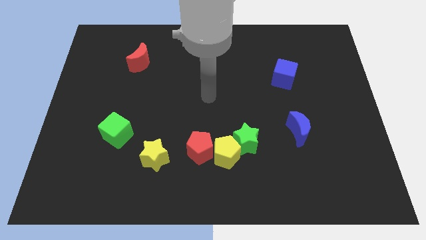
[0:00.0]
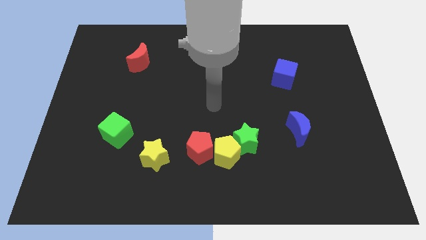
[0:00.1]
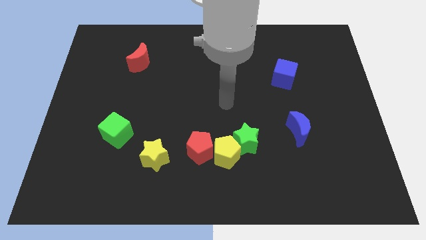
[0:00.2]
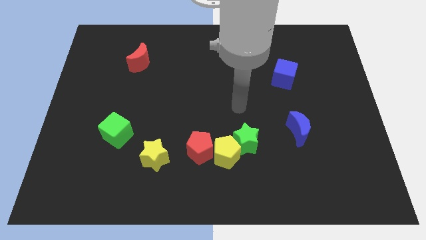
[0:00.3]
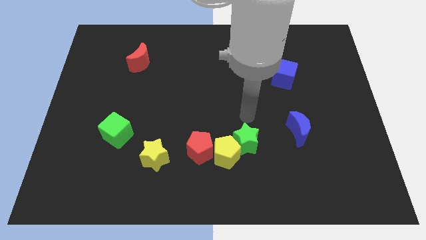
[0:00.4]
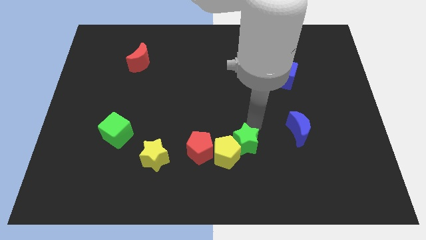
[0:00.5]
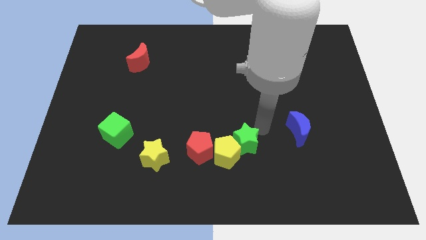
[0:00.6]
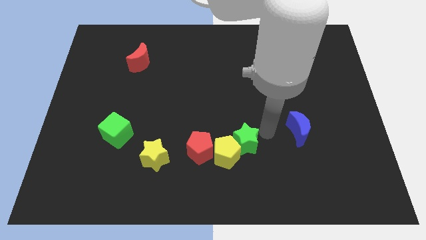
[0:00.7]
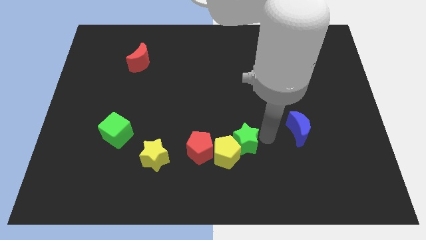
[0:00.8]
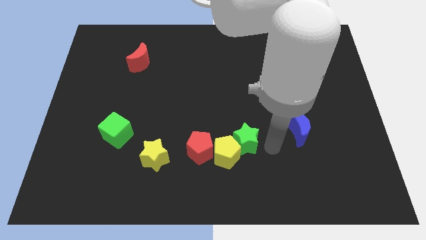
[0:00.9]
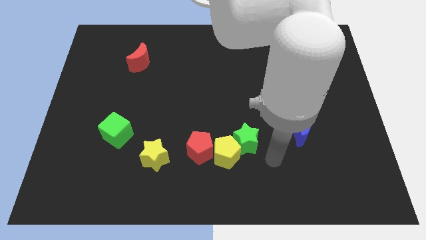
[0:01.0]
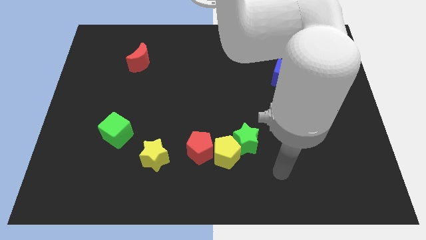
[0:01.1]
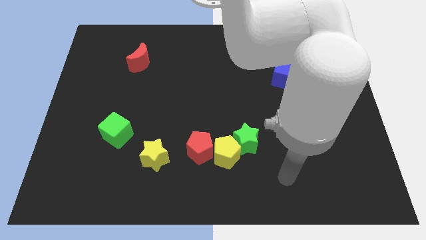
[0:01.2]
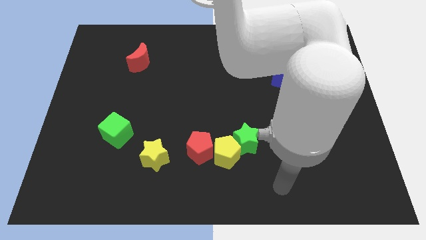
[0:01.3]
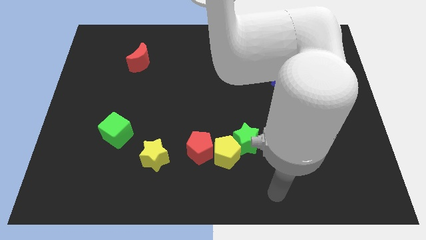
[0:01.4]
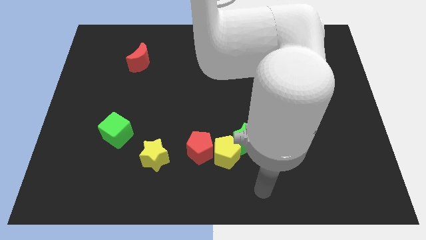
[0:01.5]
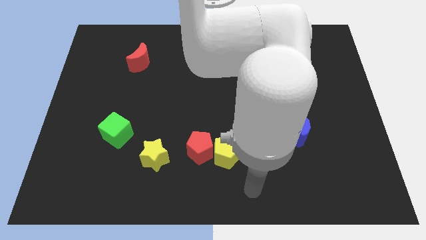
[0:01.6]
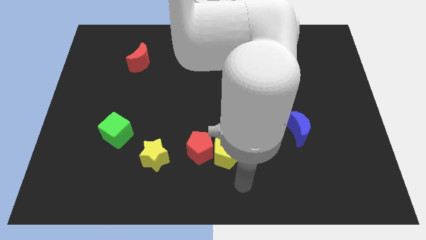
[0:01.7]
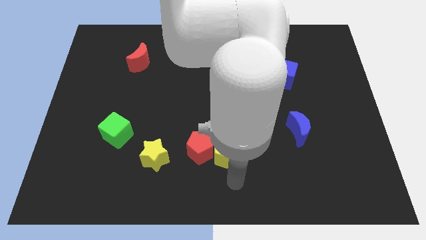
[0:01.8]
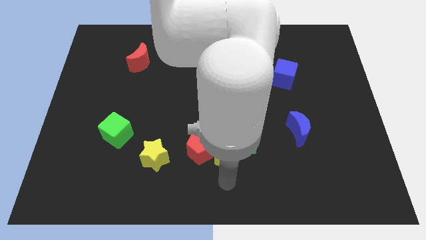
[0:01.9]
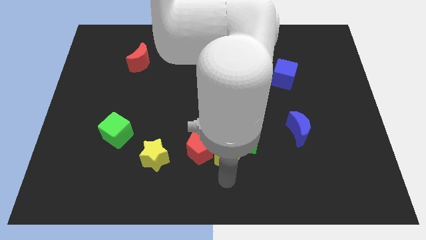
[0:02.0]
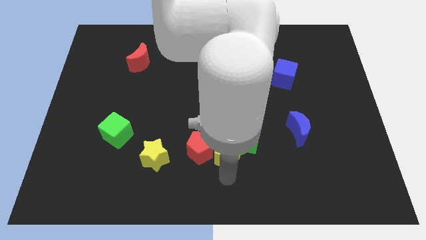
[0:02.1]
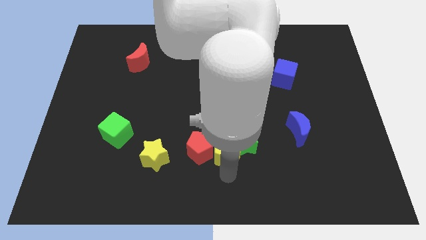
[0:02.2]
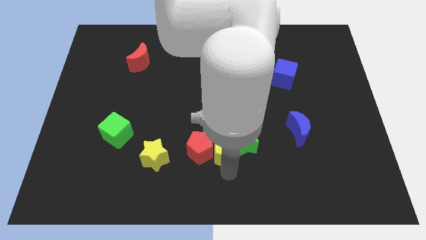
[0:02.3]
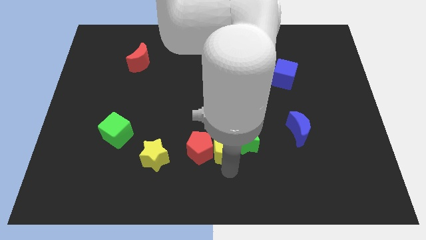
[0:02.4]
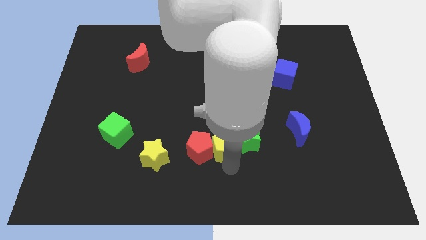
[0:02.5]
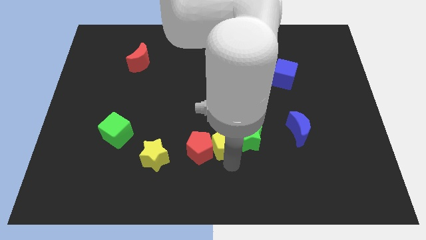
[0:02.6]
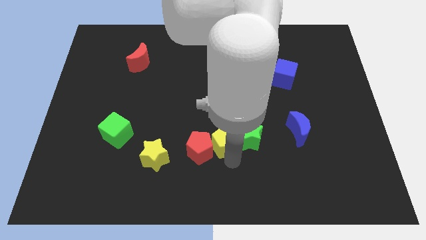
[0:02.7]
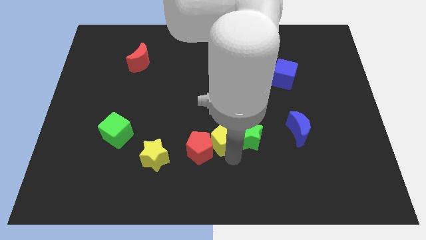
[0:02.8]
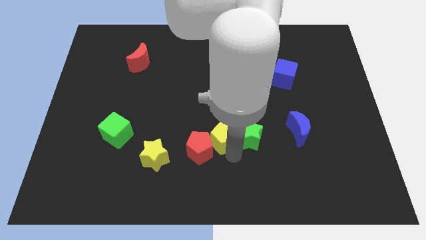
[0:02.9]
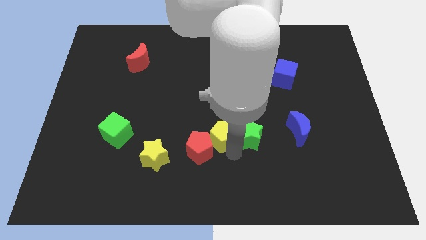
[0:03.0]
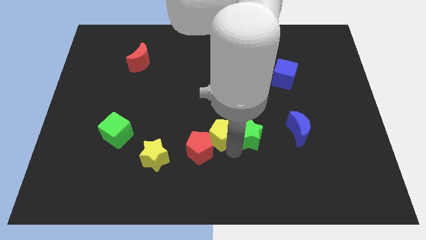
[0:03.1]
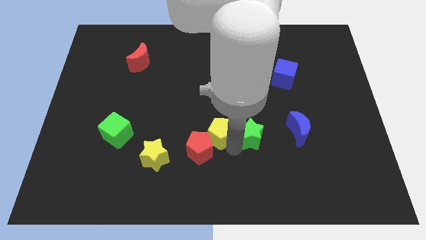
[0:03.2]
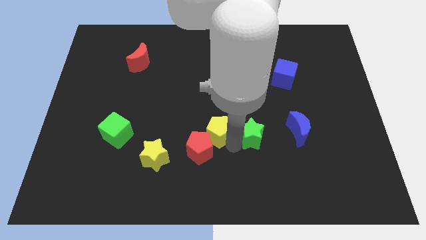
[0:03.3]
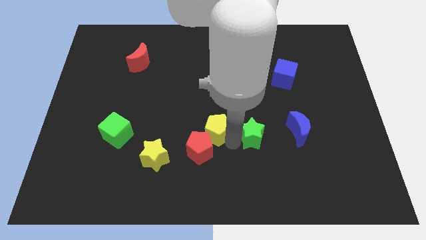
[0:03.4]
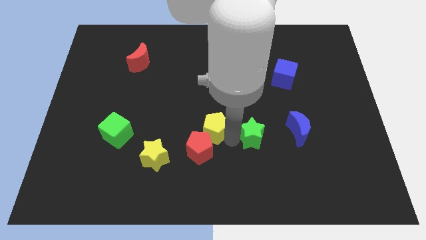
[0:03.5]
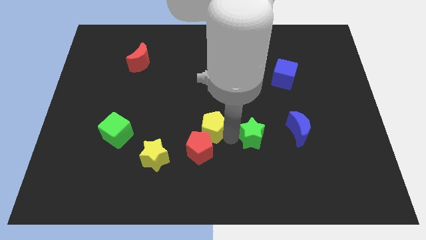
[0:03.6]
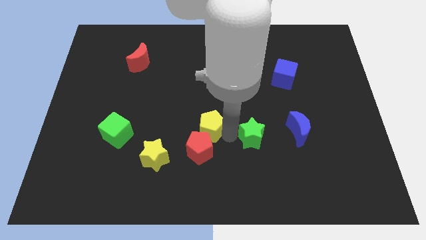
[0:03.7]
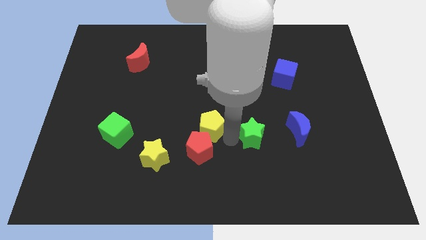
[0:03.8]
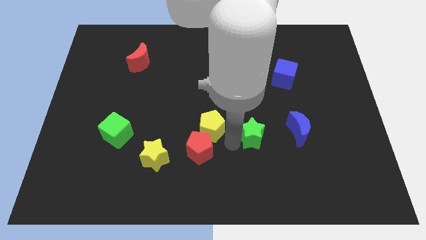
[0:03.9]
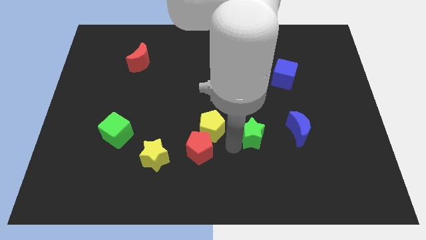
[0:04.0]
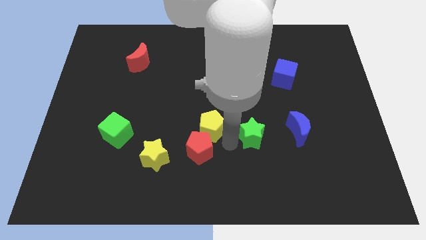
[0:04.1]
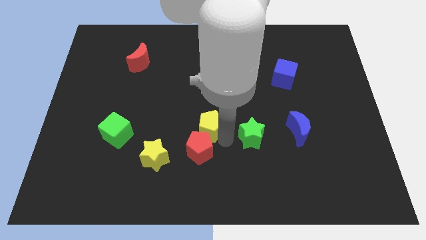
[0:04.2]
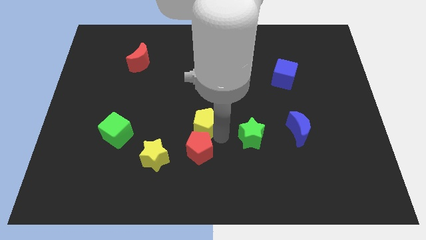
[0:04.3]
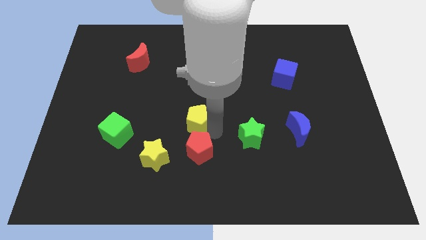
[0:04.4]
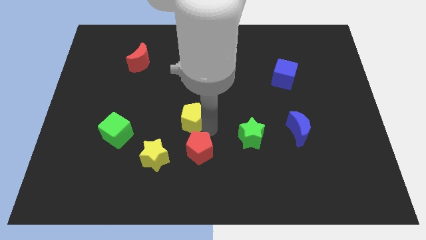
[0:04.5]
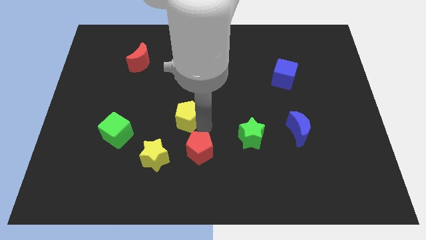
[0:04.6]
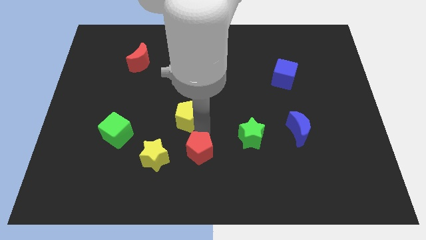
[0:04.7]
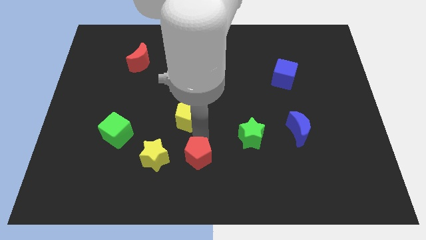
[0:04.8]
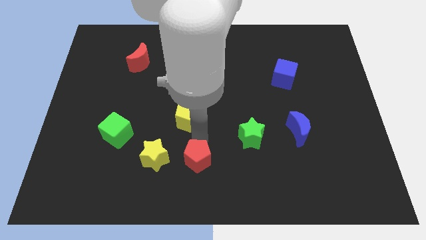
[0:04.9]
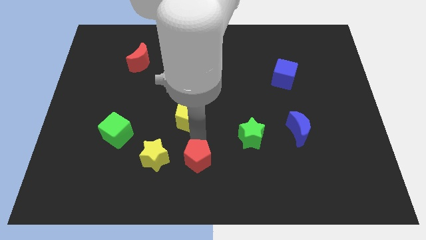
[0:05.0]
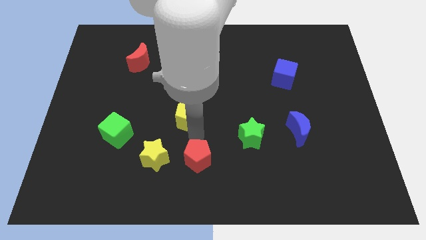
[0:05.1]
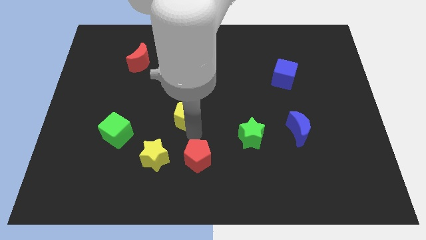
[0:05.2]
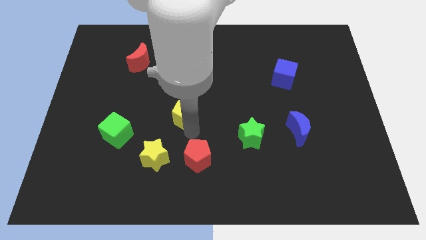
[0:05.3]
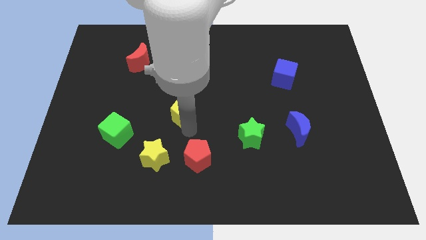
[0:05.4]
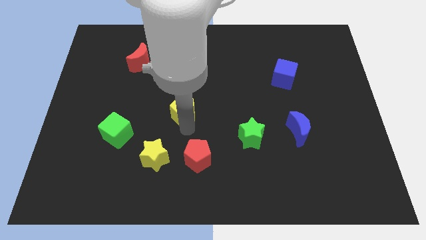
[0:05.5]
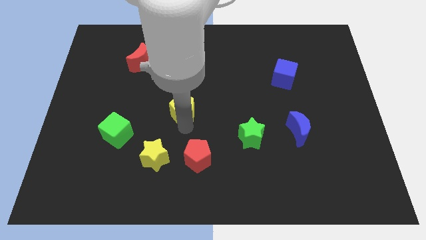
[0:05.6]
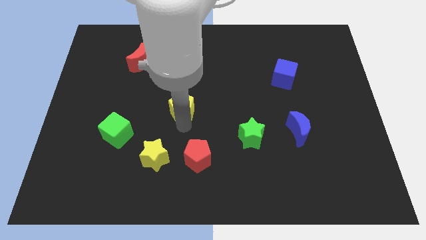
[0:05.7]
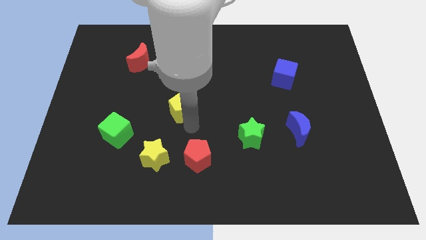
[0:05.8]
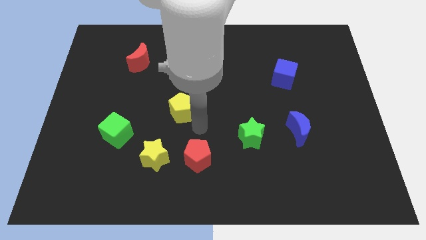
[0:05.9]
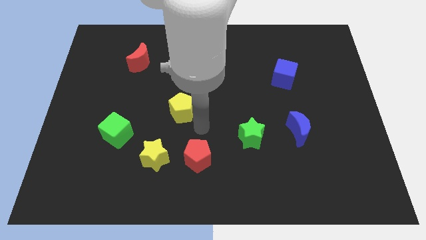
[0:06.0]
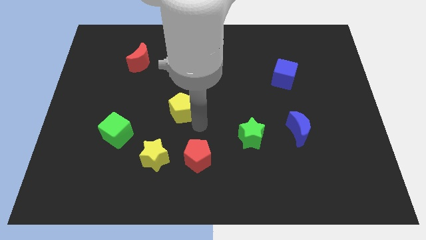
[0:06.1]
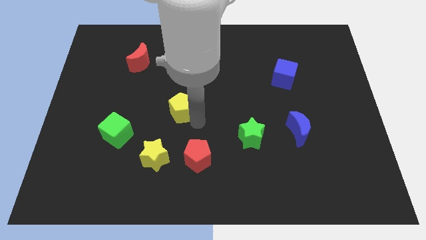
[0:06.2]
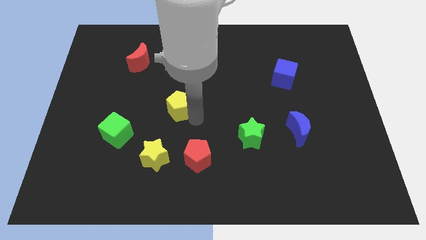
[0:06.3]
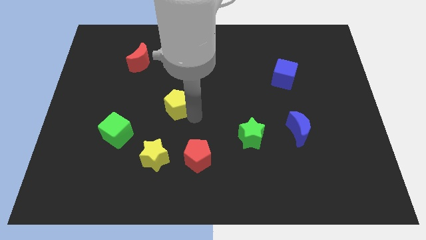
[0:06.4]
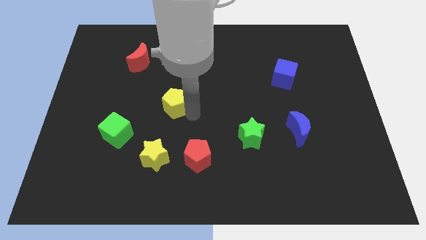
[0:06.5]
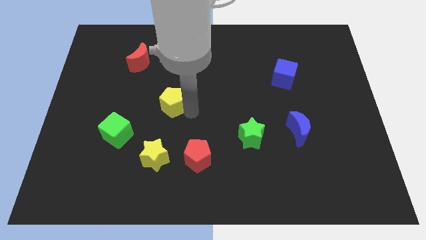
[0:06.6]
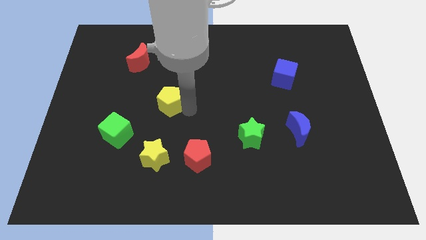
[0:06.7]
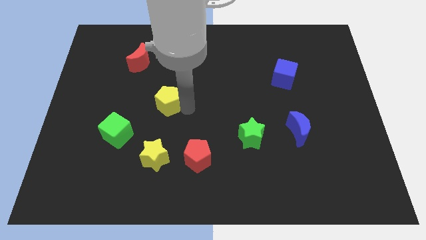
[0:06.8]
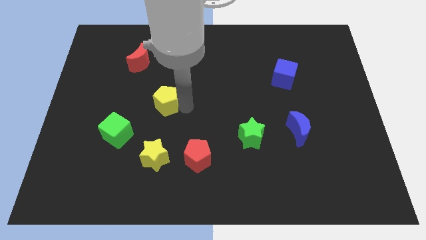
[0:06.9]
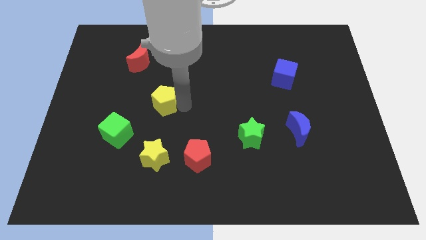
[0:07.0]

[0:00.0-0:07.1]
push the yellow pentagon diagonally up and to the left

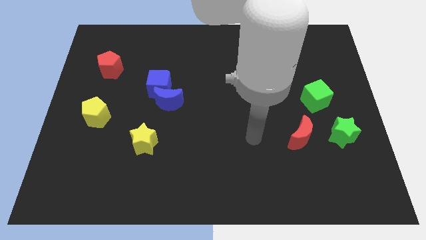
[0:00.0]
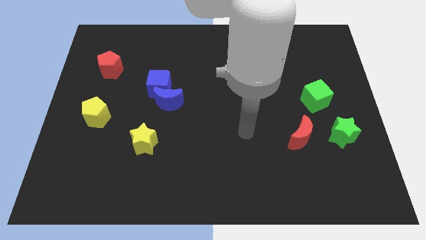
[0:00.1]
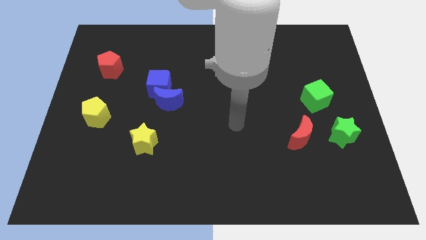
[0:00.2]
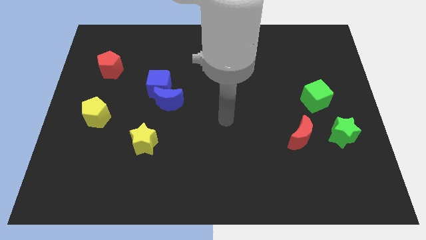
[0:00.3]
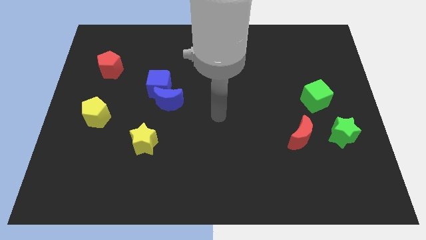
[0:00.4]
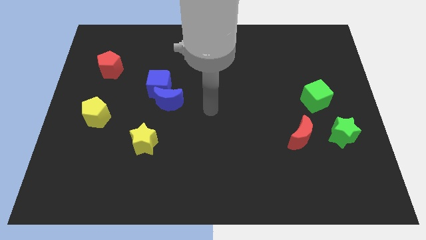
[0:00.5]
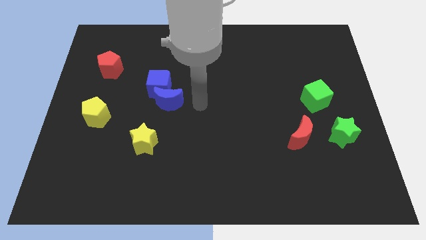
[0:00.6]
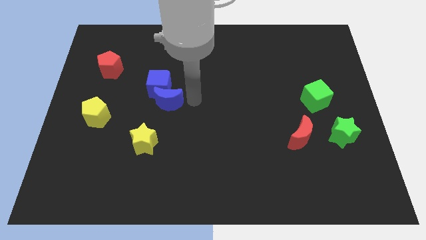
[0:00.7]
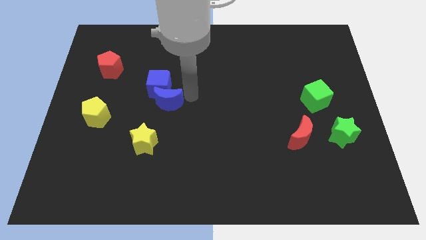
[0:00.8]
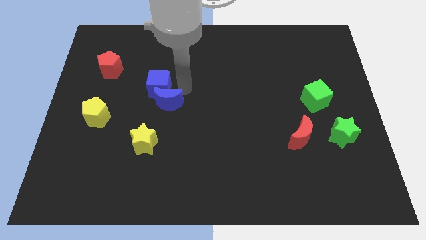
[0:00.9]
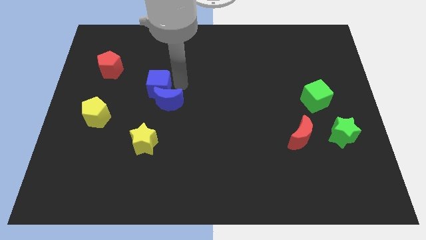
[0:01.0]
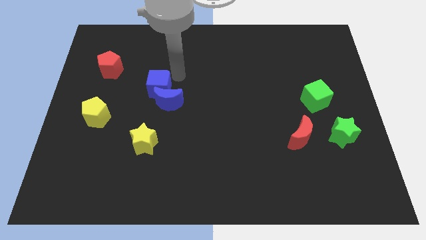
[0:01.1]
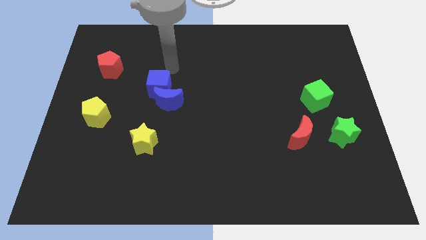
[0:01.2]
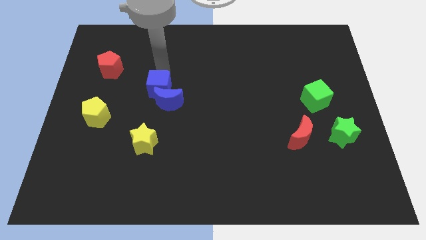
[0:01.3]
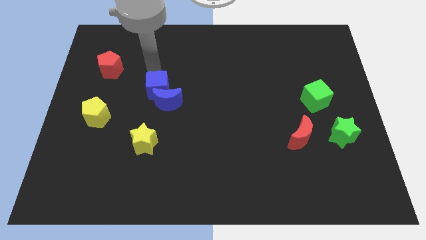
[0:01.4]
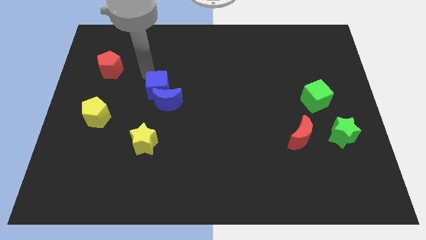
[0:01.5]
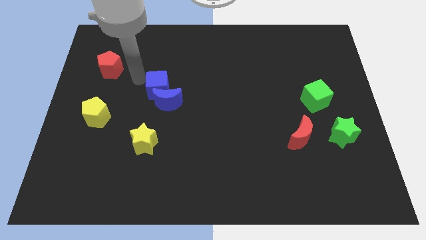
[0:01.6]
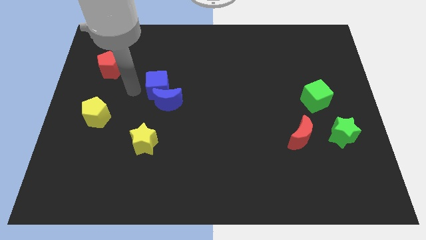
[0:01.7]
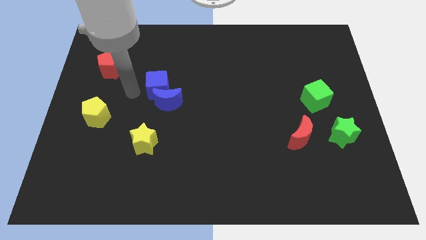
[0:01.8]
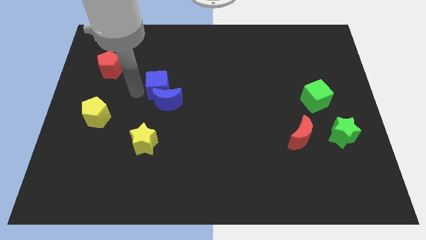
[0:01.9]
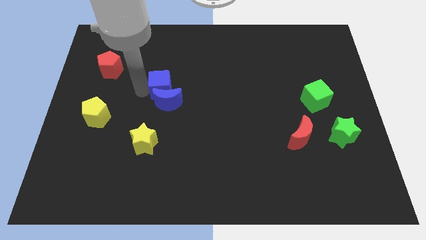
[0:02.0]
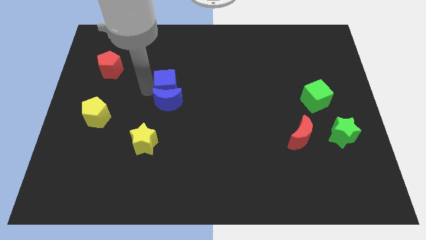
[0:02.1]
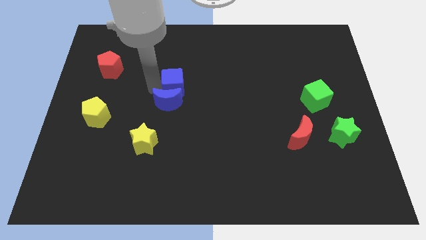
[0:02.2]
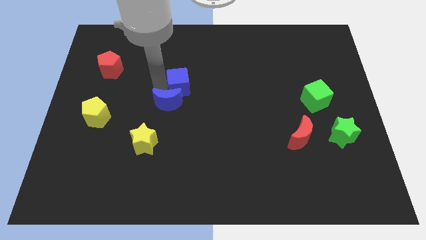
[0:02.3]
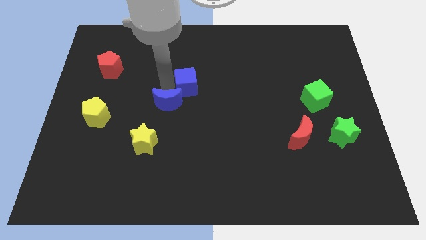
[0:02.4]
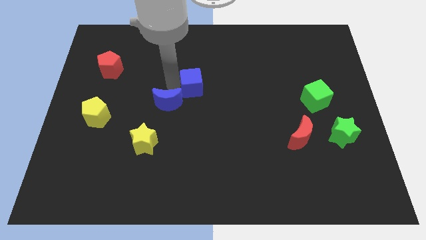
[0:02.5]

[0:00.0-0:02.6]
slide the blue cube to the right a bit
